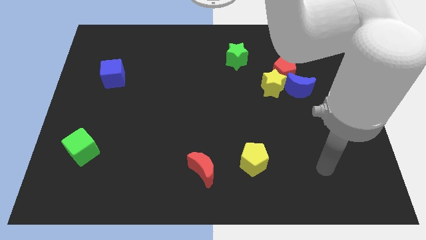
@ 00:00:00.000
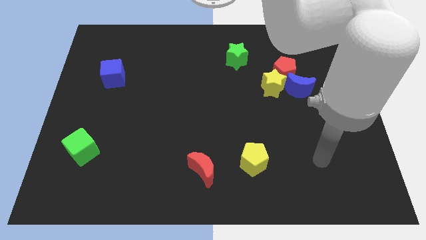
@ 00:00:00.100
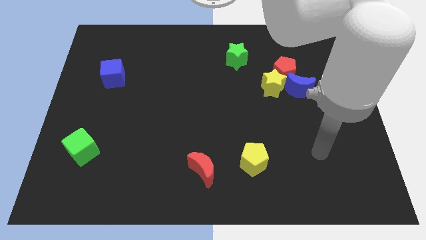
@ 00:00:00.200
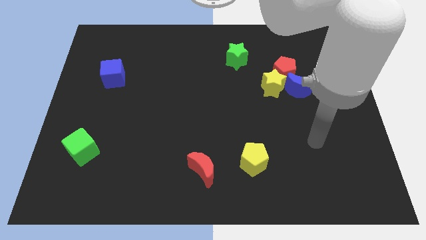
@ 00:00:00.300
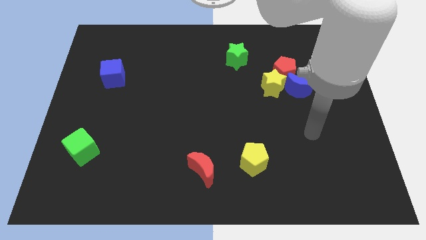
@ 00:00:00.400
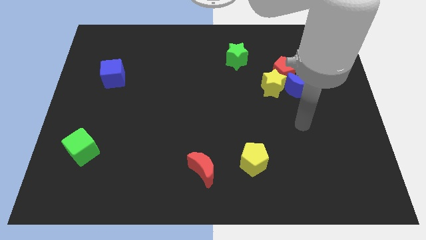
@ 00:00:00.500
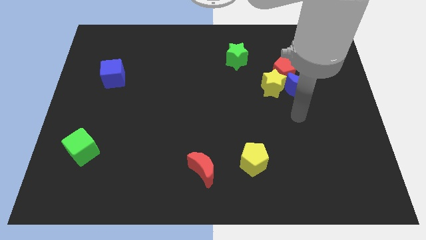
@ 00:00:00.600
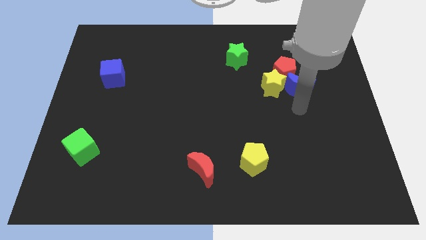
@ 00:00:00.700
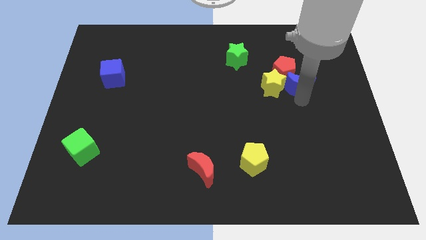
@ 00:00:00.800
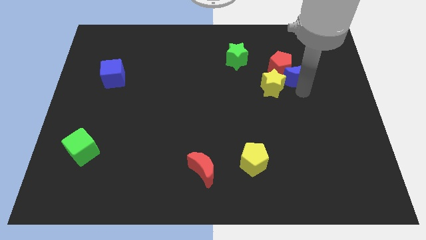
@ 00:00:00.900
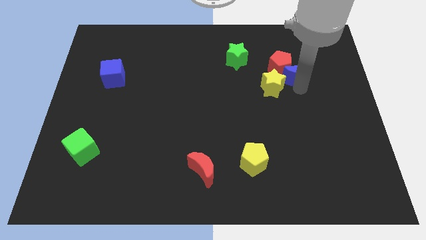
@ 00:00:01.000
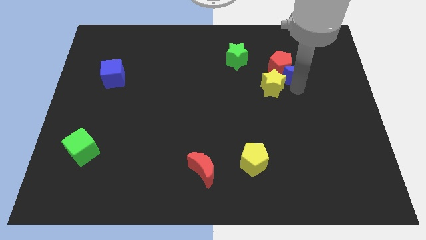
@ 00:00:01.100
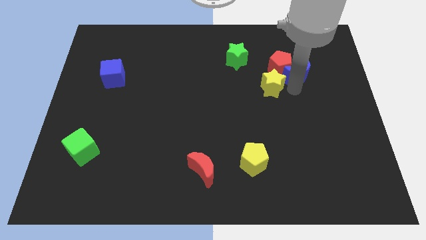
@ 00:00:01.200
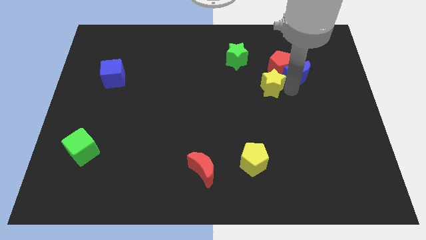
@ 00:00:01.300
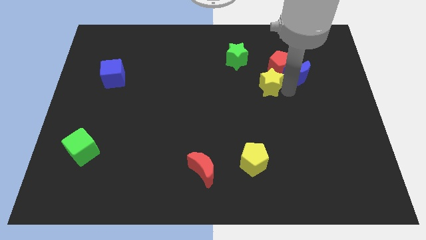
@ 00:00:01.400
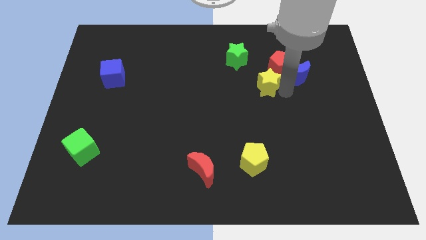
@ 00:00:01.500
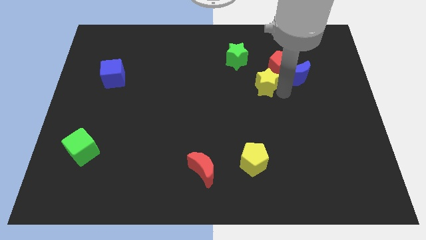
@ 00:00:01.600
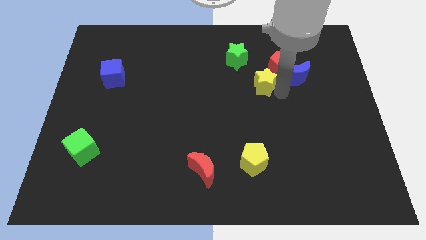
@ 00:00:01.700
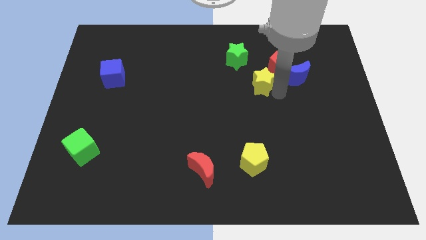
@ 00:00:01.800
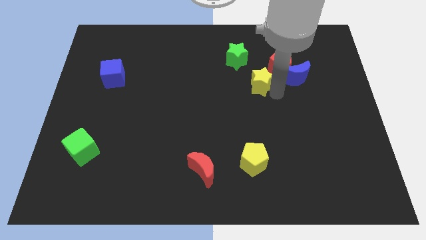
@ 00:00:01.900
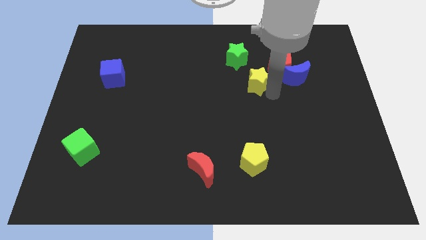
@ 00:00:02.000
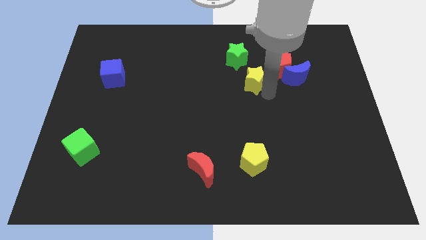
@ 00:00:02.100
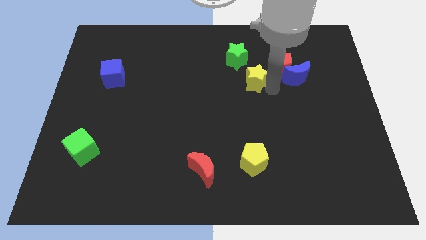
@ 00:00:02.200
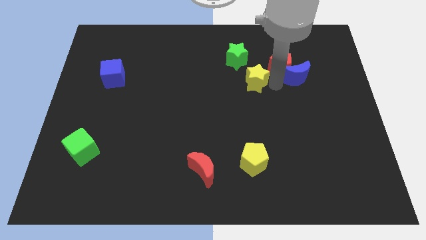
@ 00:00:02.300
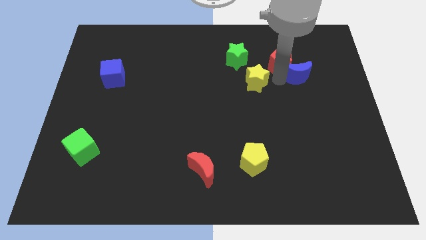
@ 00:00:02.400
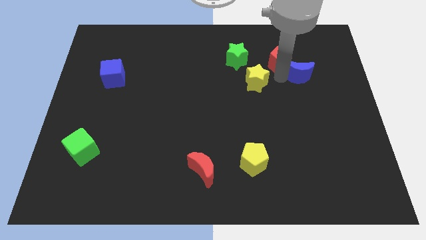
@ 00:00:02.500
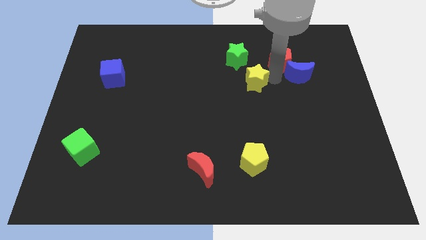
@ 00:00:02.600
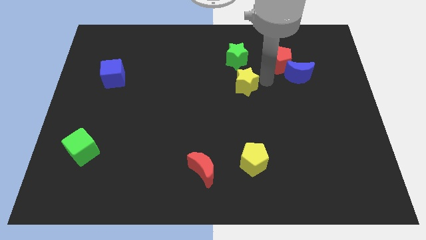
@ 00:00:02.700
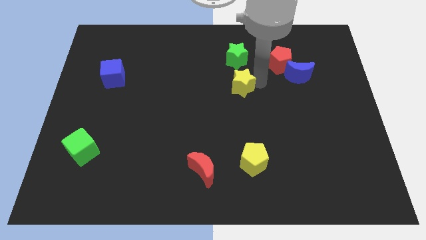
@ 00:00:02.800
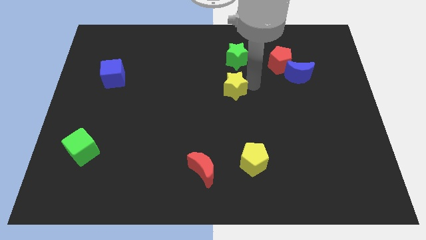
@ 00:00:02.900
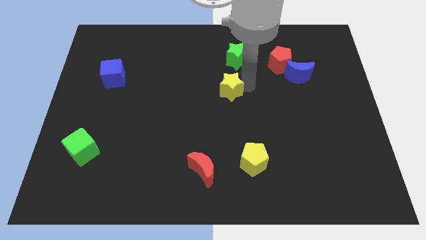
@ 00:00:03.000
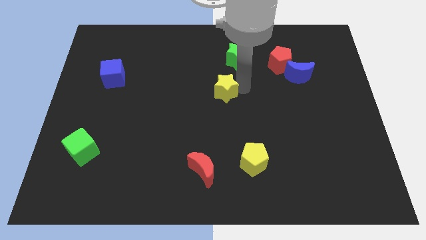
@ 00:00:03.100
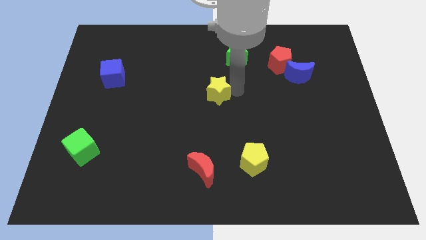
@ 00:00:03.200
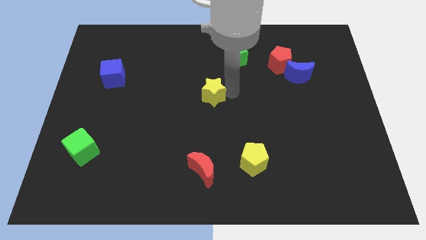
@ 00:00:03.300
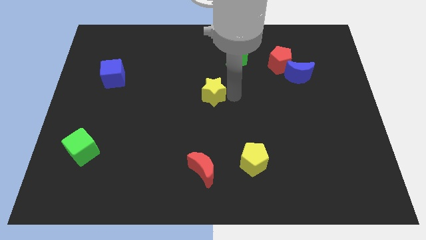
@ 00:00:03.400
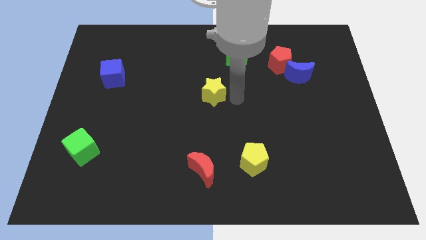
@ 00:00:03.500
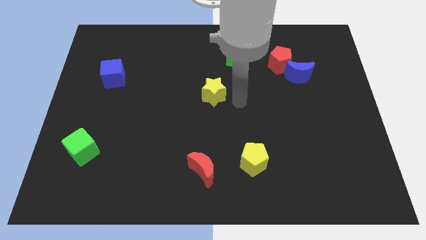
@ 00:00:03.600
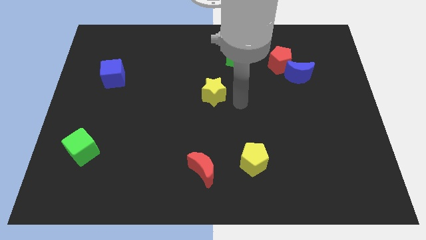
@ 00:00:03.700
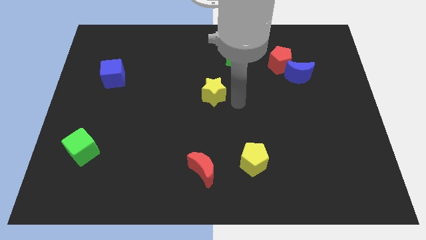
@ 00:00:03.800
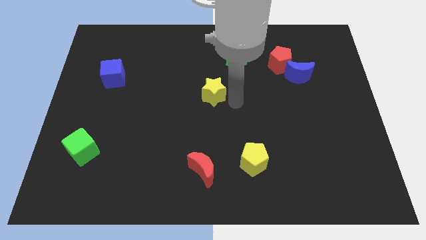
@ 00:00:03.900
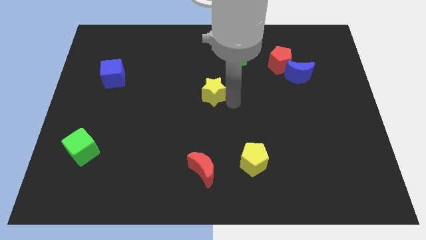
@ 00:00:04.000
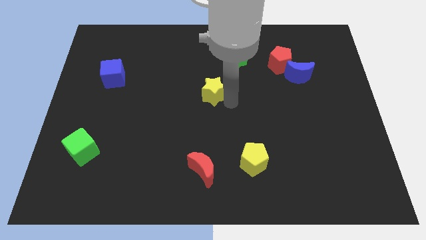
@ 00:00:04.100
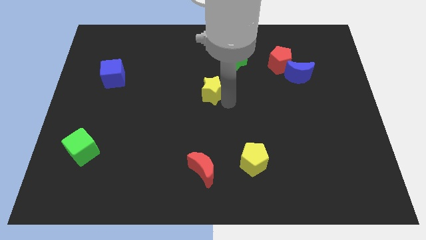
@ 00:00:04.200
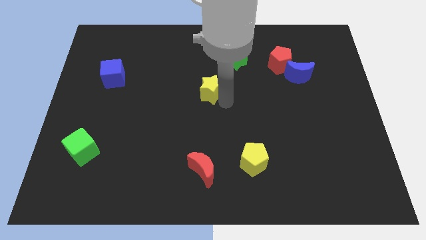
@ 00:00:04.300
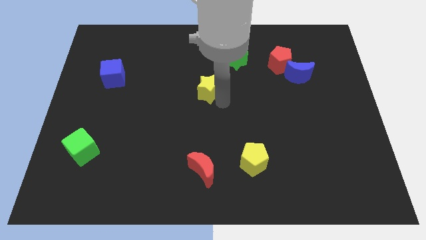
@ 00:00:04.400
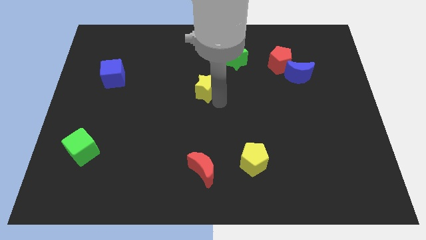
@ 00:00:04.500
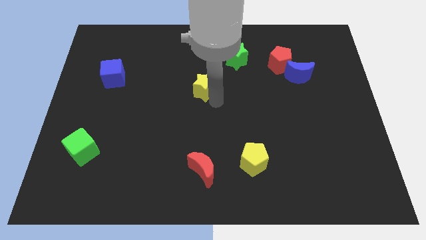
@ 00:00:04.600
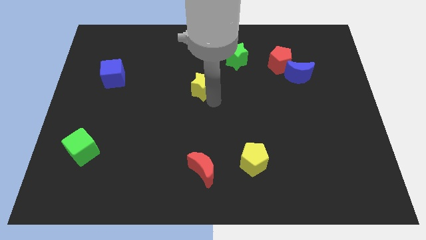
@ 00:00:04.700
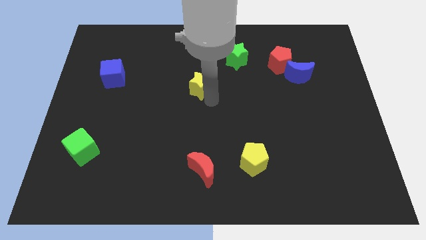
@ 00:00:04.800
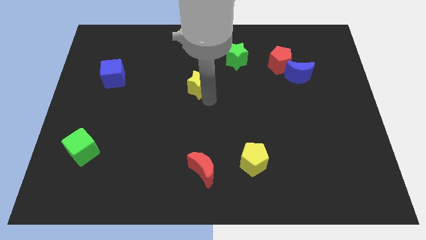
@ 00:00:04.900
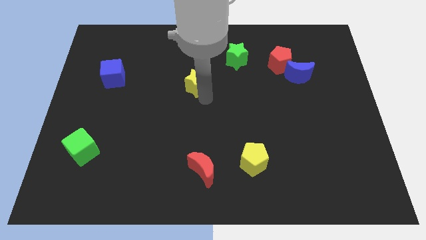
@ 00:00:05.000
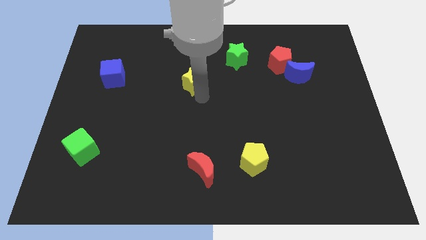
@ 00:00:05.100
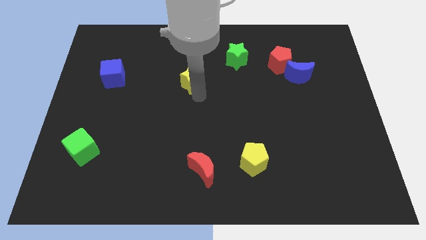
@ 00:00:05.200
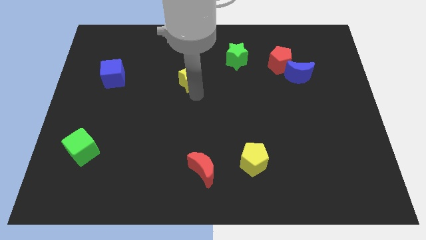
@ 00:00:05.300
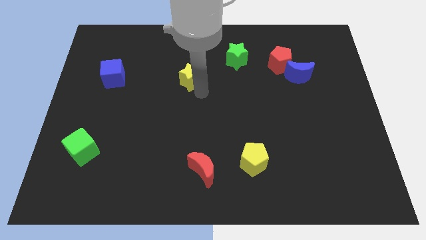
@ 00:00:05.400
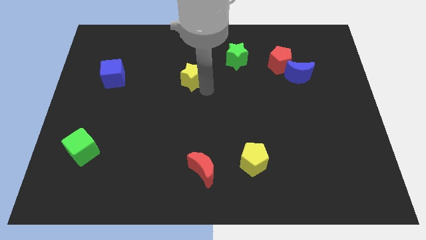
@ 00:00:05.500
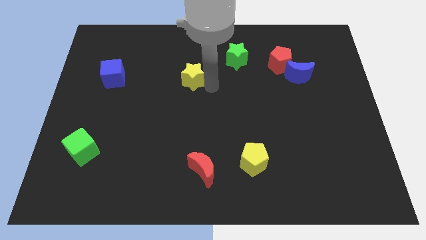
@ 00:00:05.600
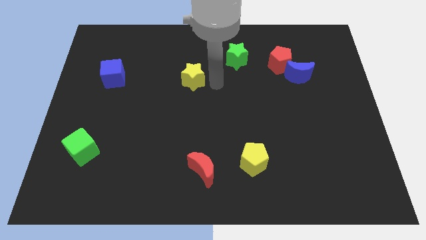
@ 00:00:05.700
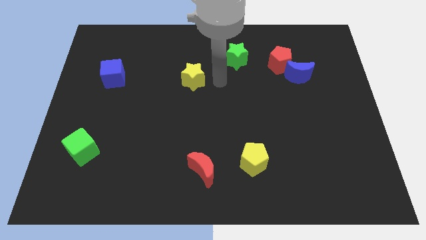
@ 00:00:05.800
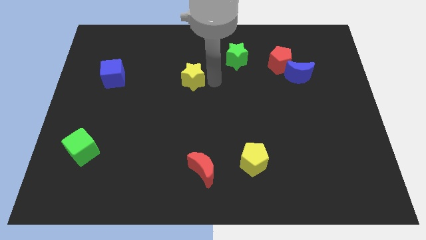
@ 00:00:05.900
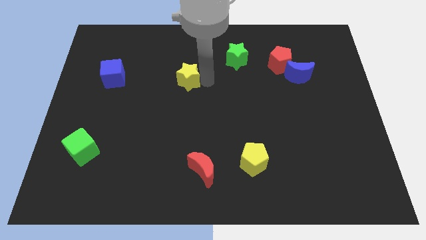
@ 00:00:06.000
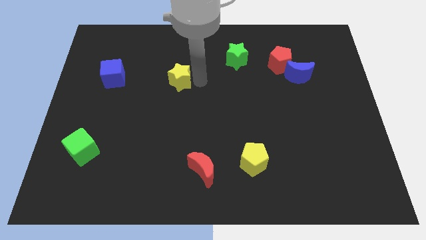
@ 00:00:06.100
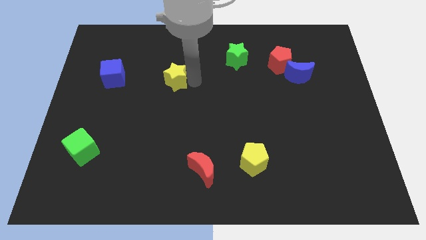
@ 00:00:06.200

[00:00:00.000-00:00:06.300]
push the yellow star just right of the blue cube
